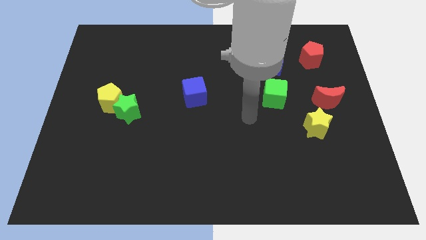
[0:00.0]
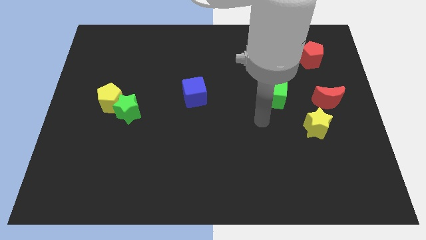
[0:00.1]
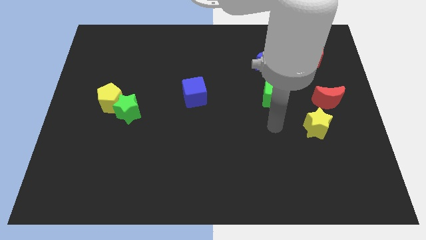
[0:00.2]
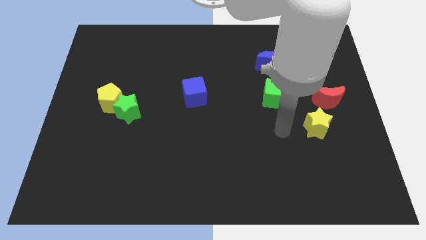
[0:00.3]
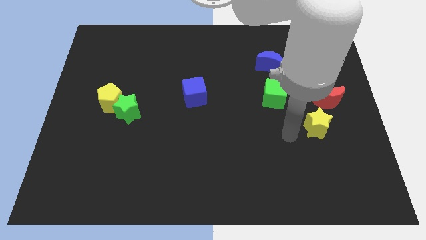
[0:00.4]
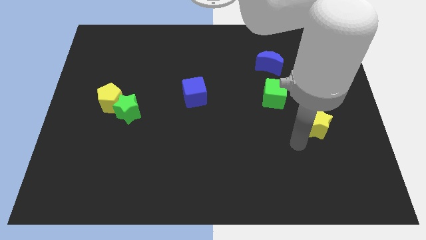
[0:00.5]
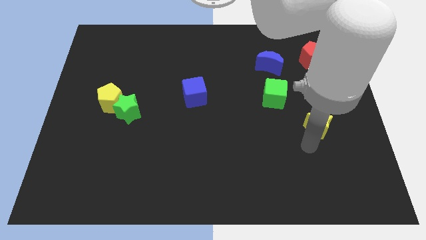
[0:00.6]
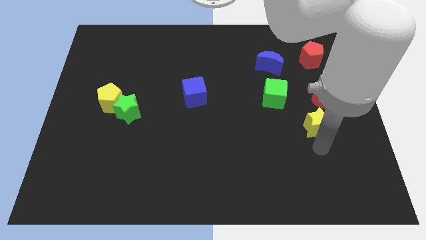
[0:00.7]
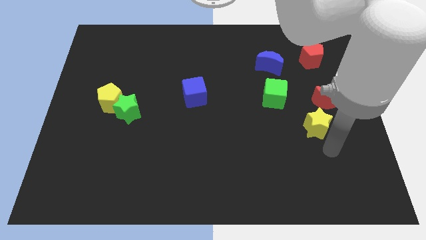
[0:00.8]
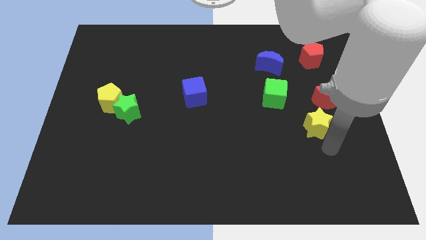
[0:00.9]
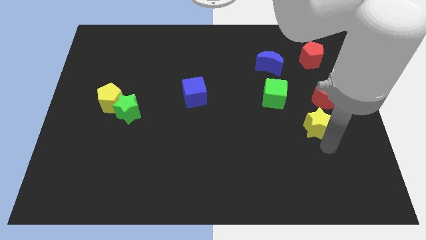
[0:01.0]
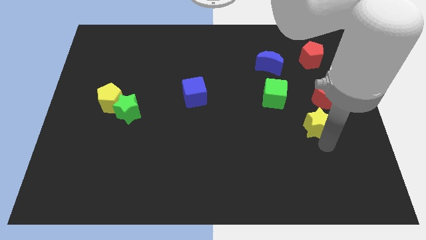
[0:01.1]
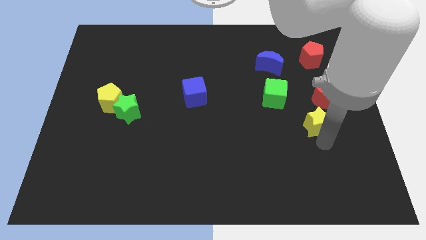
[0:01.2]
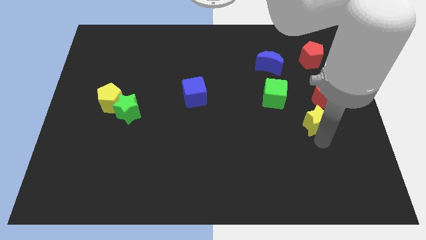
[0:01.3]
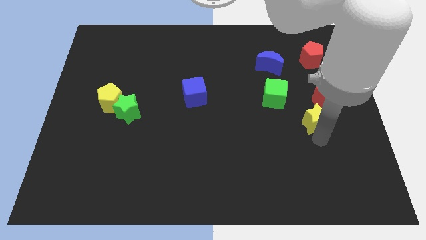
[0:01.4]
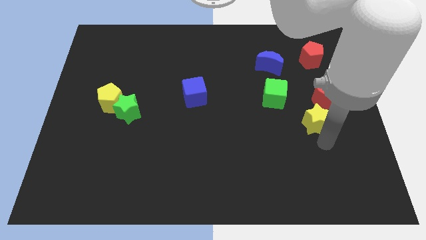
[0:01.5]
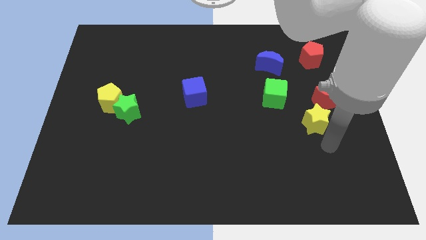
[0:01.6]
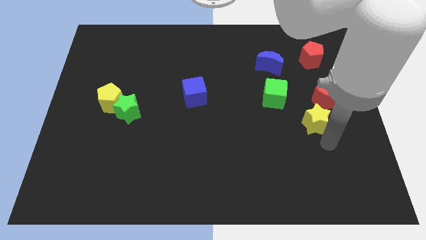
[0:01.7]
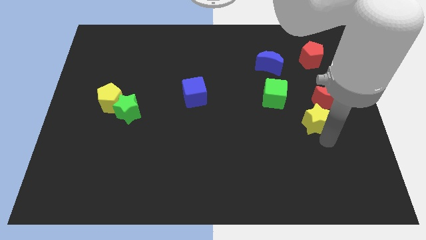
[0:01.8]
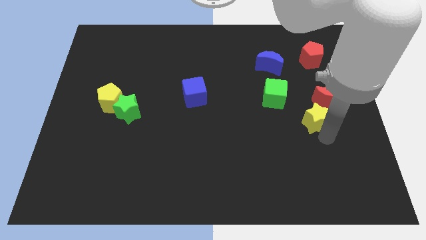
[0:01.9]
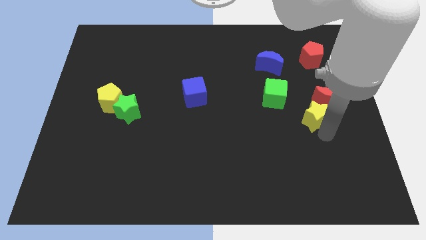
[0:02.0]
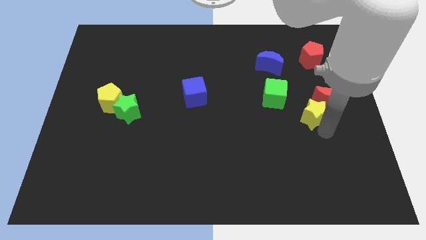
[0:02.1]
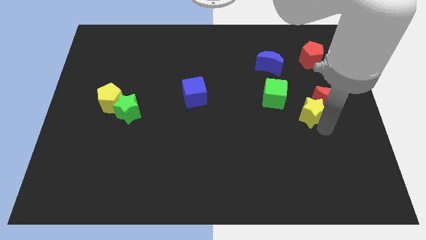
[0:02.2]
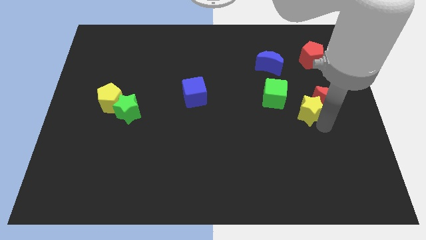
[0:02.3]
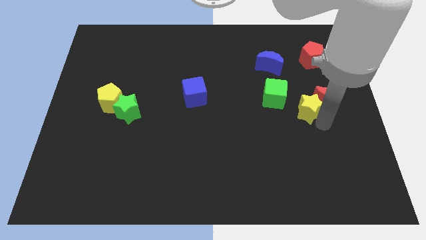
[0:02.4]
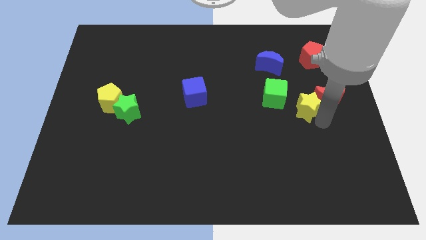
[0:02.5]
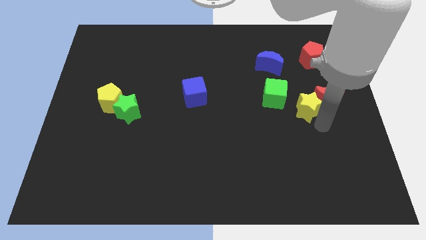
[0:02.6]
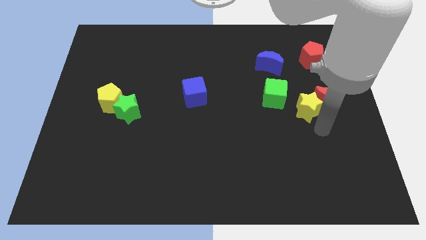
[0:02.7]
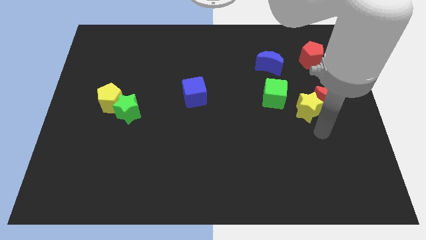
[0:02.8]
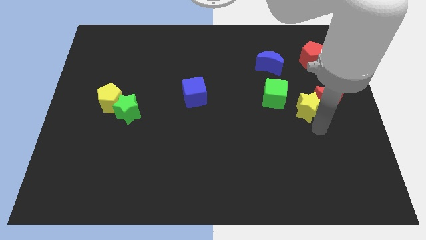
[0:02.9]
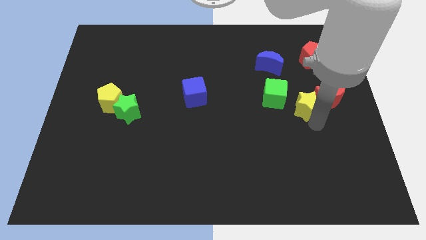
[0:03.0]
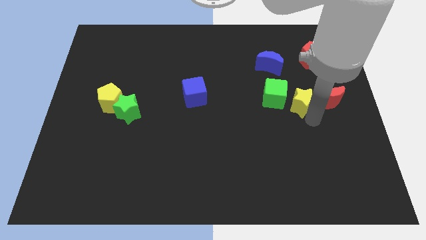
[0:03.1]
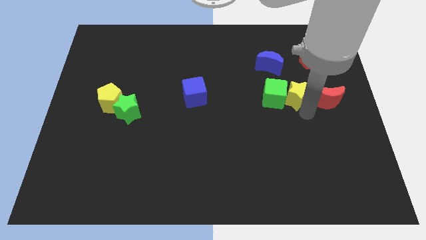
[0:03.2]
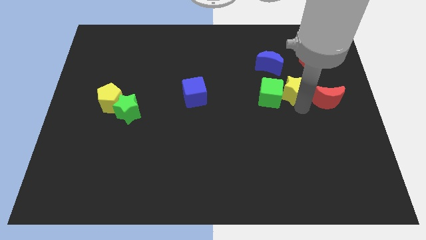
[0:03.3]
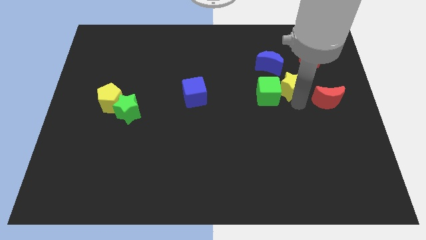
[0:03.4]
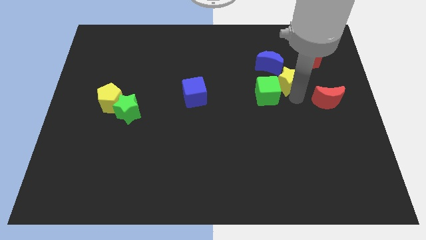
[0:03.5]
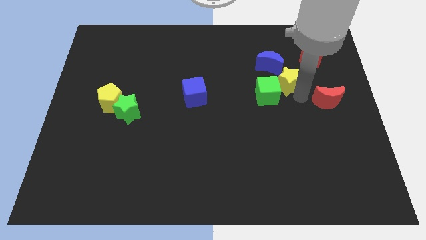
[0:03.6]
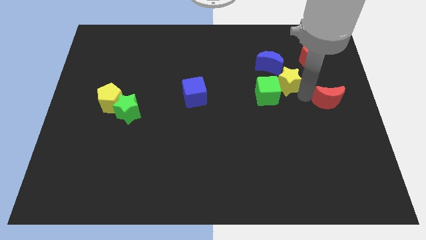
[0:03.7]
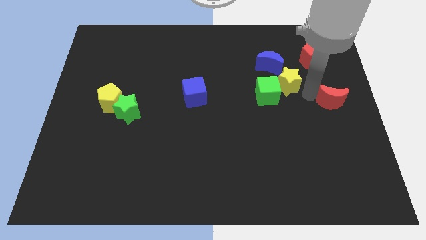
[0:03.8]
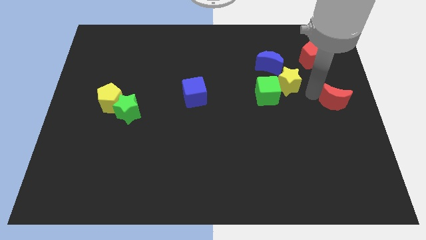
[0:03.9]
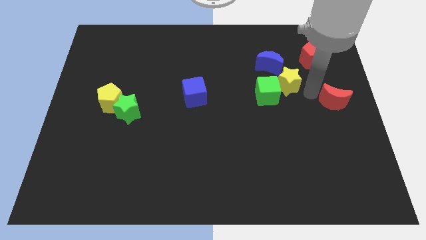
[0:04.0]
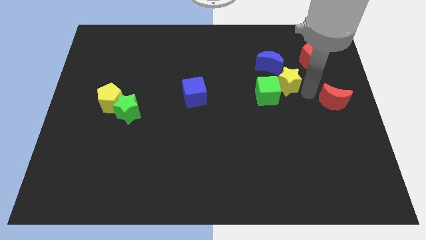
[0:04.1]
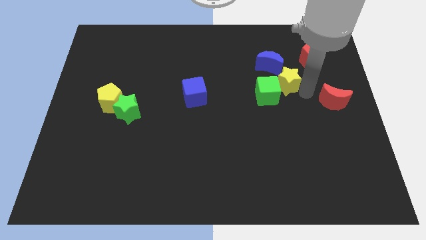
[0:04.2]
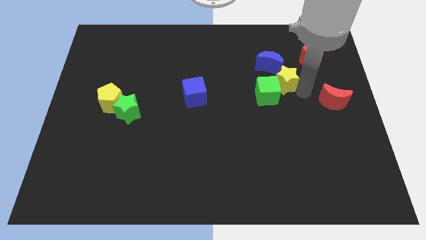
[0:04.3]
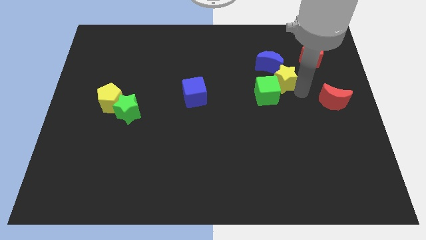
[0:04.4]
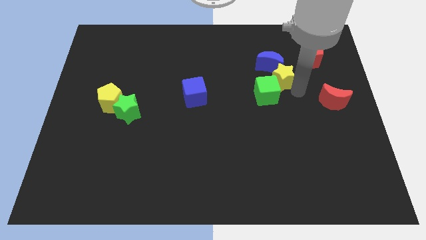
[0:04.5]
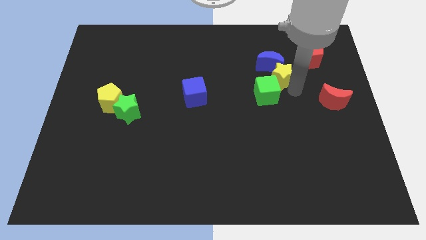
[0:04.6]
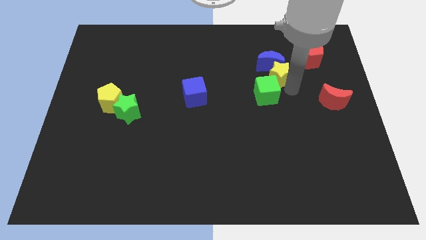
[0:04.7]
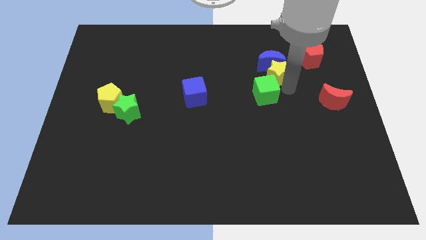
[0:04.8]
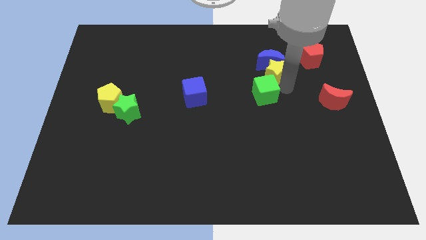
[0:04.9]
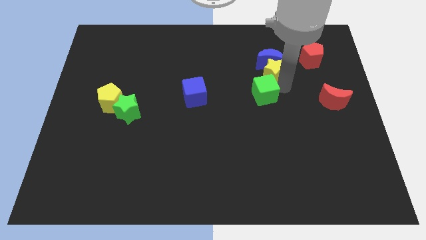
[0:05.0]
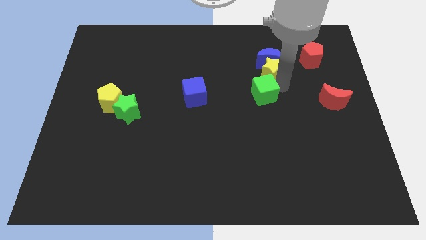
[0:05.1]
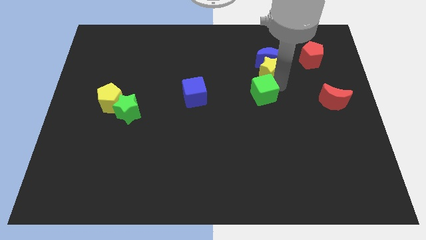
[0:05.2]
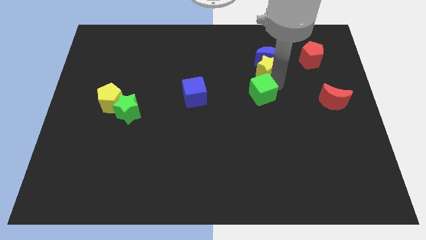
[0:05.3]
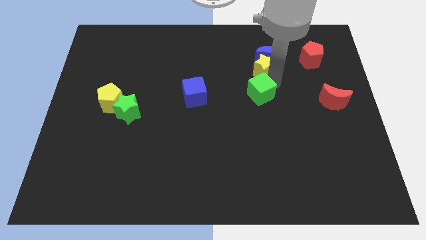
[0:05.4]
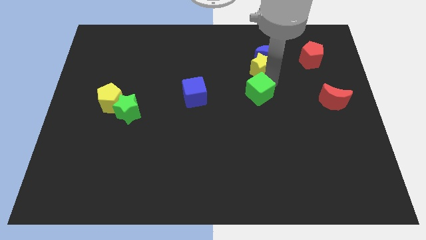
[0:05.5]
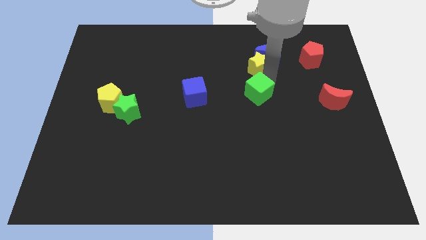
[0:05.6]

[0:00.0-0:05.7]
push the yellow star diagonally up and left

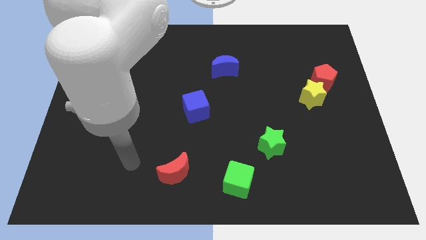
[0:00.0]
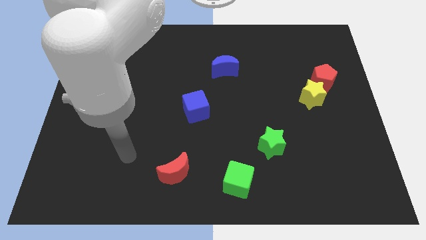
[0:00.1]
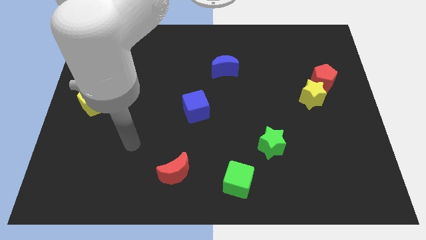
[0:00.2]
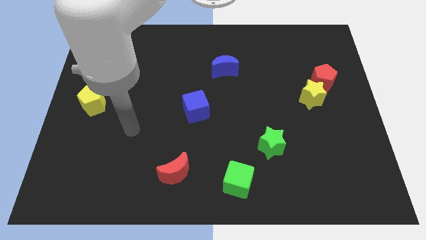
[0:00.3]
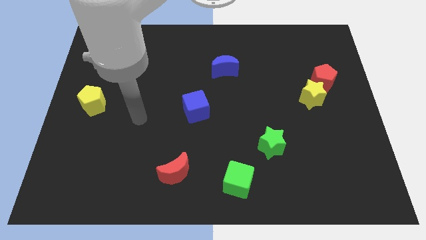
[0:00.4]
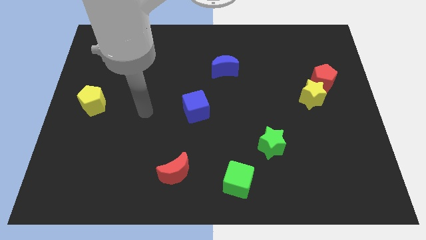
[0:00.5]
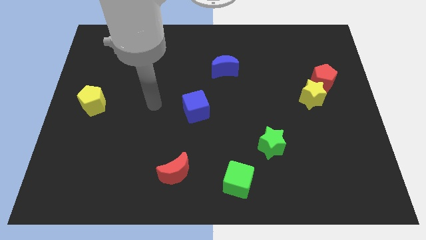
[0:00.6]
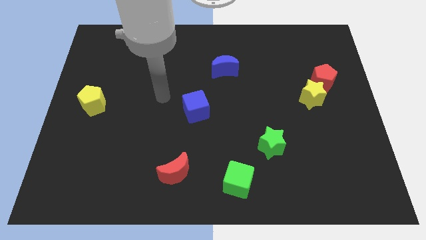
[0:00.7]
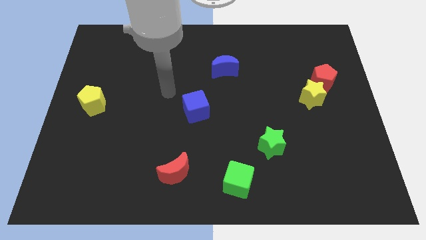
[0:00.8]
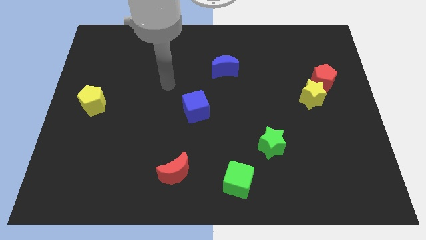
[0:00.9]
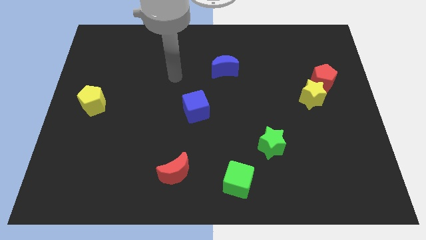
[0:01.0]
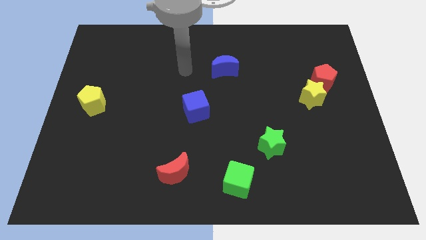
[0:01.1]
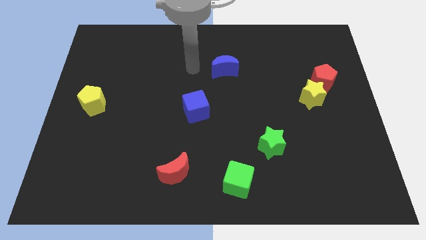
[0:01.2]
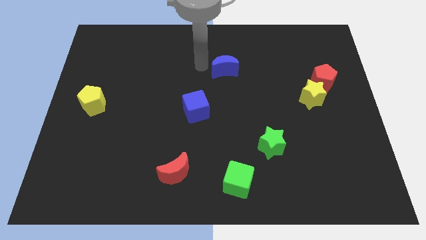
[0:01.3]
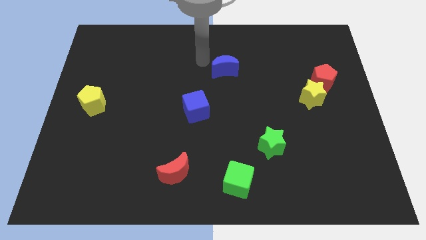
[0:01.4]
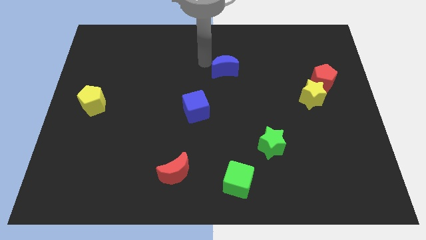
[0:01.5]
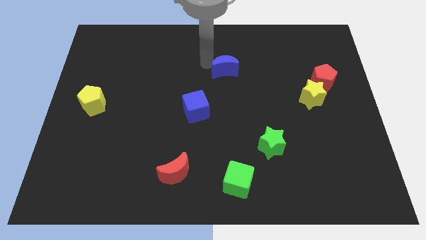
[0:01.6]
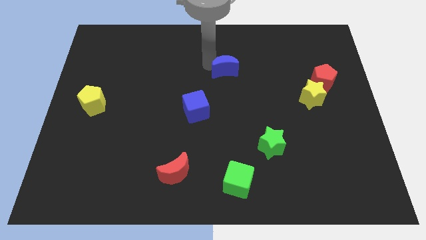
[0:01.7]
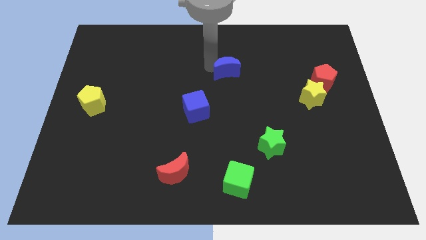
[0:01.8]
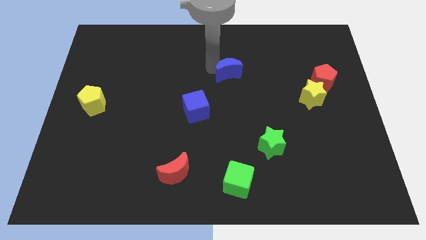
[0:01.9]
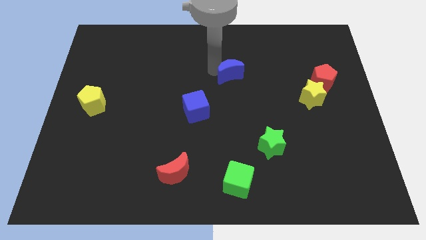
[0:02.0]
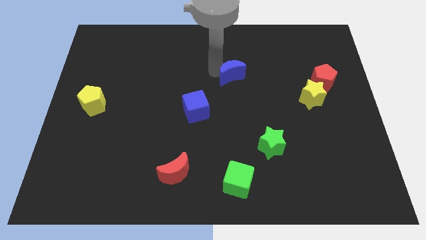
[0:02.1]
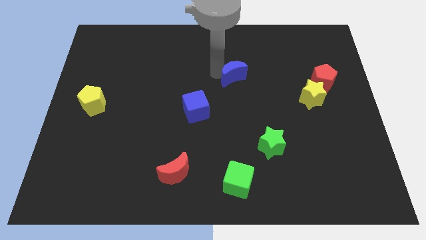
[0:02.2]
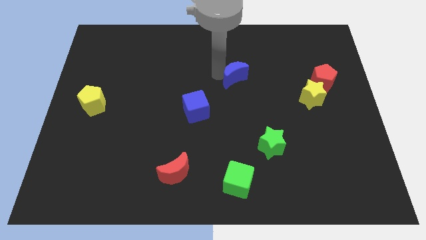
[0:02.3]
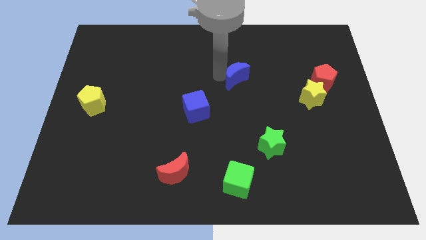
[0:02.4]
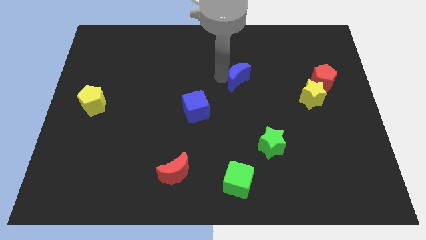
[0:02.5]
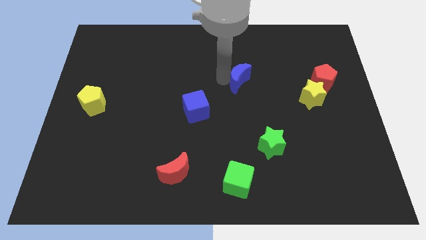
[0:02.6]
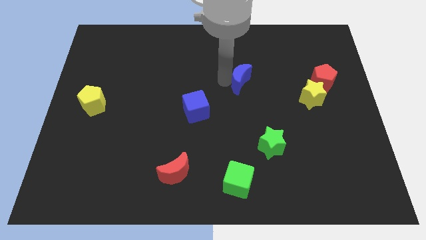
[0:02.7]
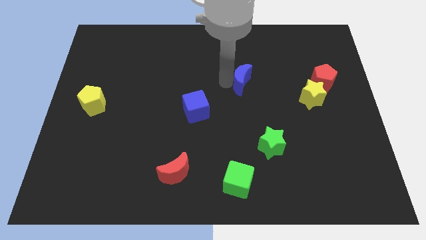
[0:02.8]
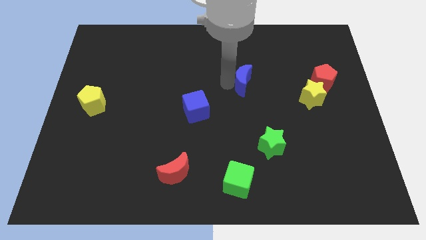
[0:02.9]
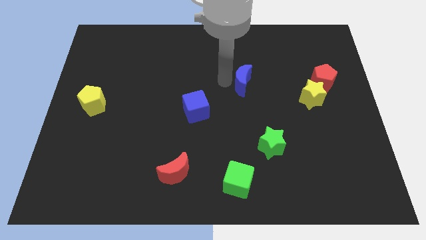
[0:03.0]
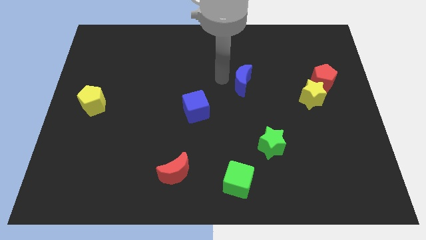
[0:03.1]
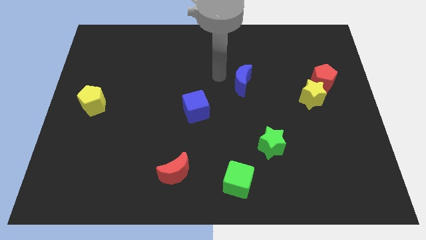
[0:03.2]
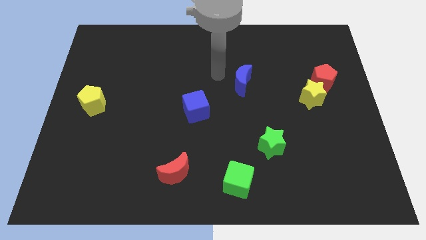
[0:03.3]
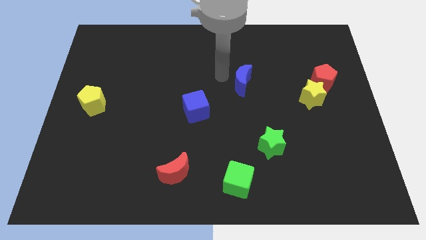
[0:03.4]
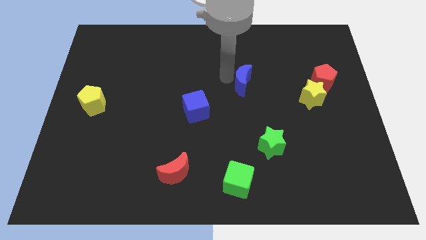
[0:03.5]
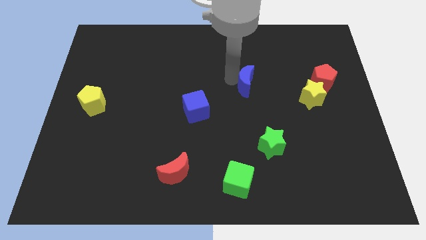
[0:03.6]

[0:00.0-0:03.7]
move the blue moon a little down and to the right diagonally
